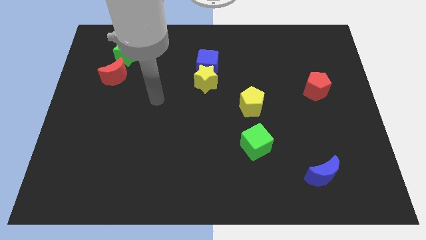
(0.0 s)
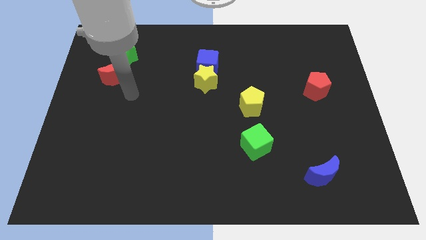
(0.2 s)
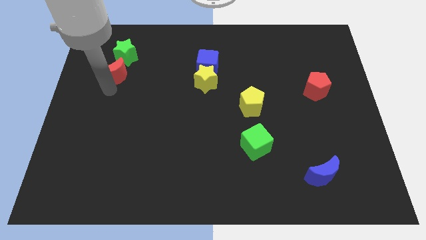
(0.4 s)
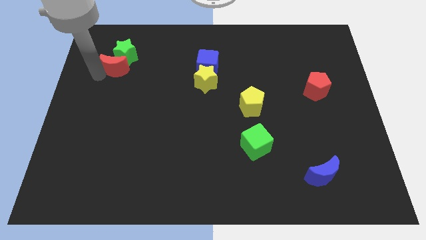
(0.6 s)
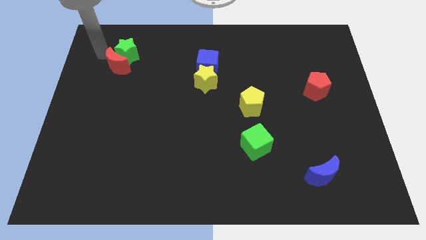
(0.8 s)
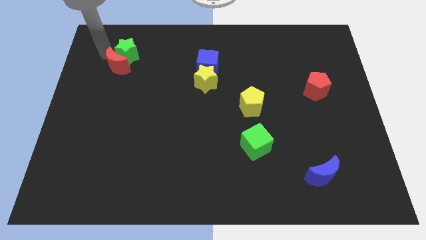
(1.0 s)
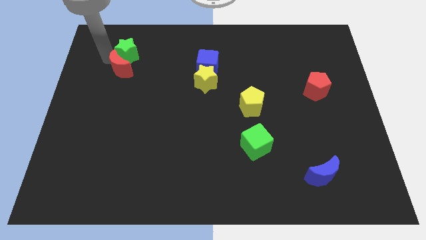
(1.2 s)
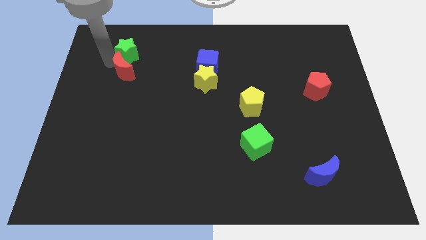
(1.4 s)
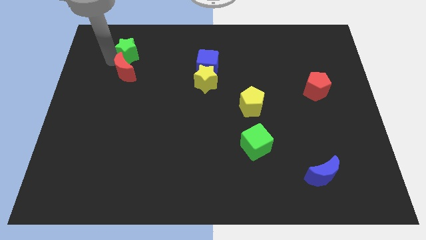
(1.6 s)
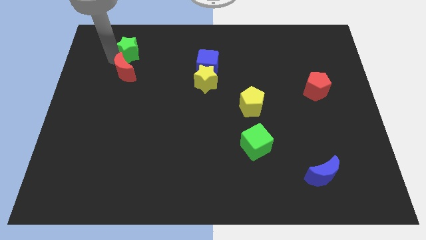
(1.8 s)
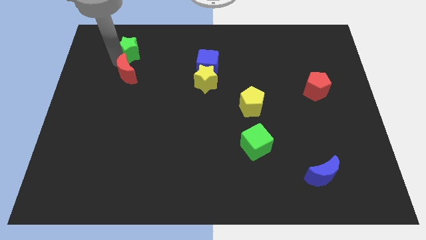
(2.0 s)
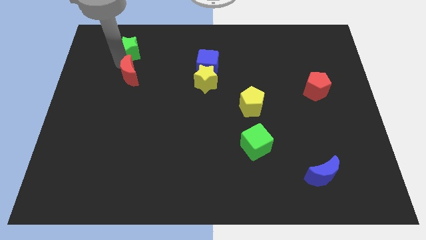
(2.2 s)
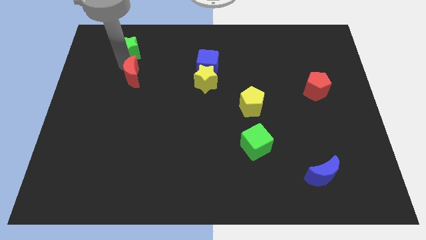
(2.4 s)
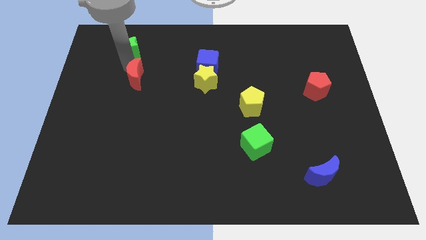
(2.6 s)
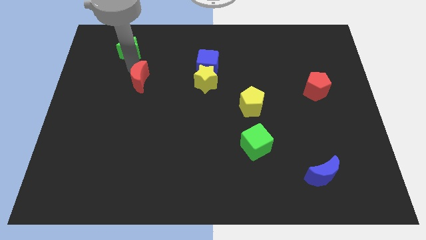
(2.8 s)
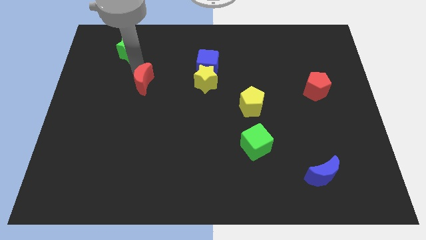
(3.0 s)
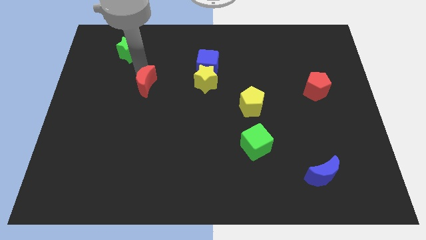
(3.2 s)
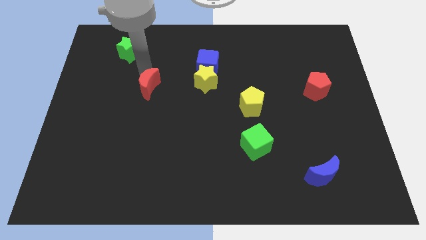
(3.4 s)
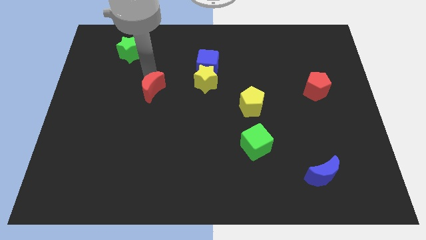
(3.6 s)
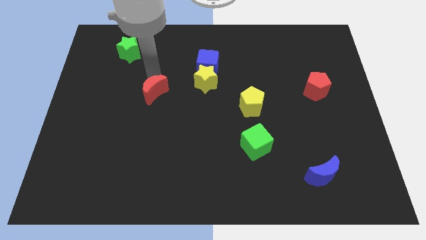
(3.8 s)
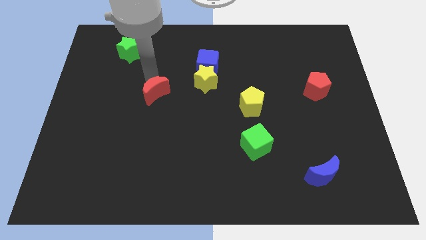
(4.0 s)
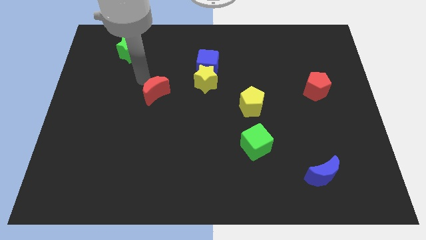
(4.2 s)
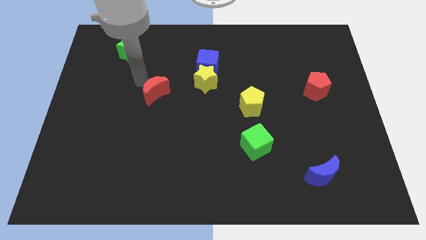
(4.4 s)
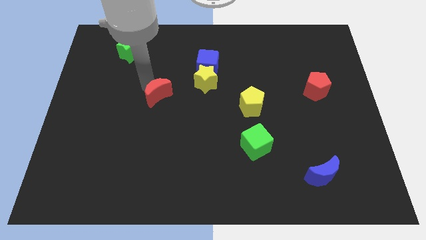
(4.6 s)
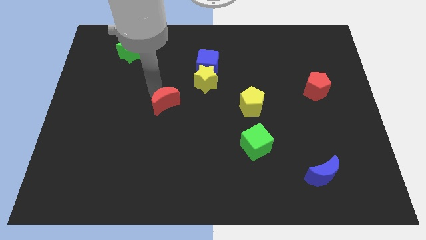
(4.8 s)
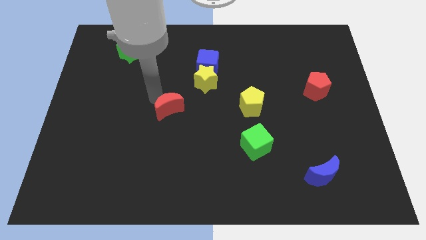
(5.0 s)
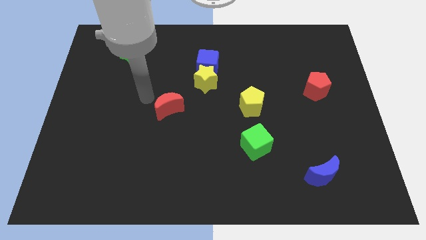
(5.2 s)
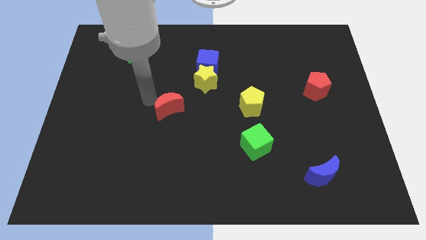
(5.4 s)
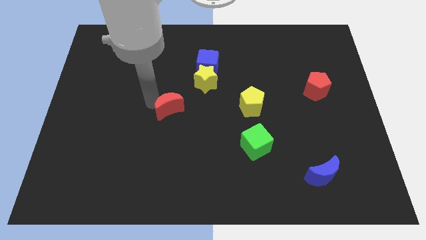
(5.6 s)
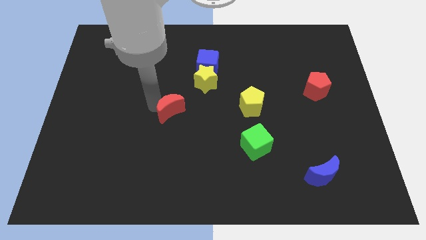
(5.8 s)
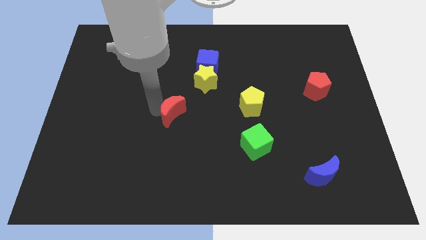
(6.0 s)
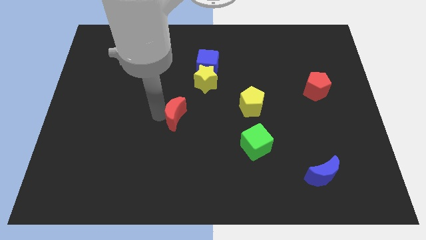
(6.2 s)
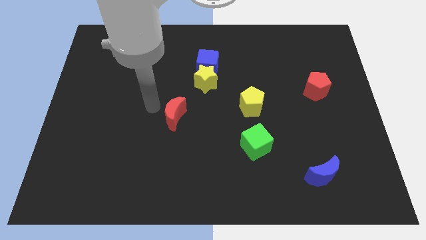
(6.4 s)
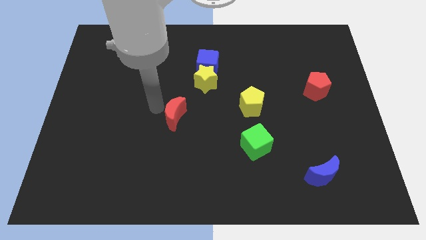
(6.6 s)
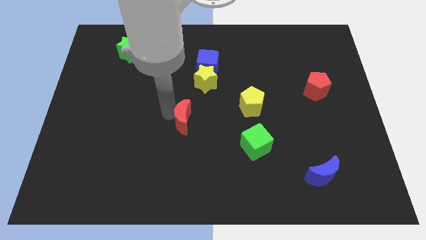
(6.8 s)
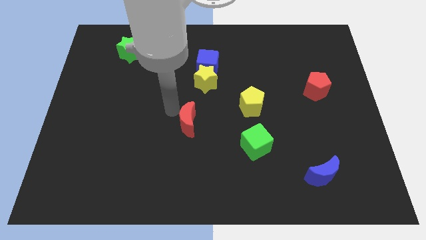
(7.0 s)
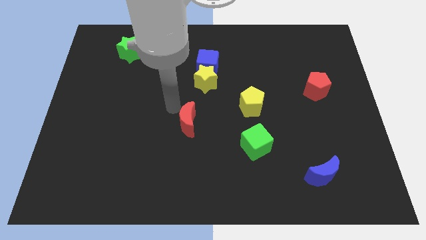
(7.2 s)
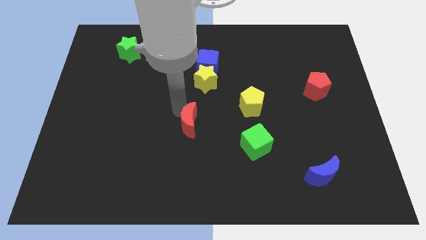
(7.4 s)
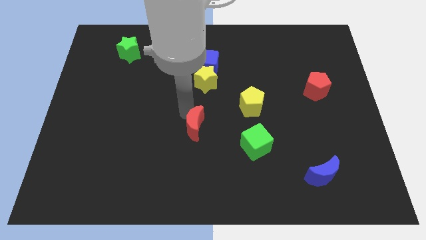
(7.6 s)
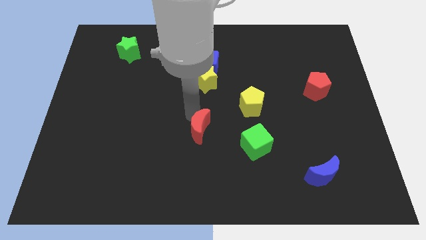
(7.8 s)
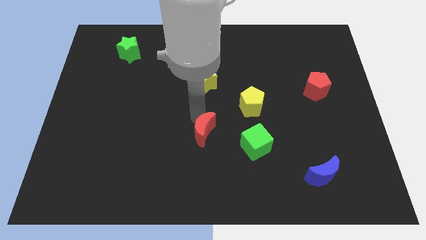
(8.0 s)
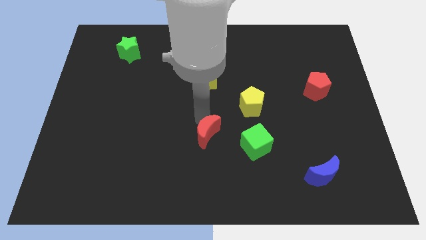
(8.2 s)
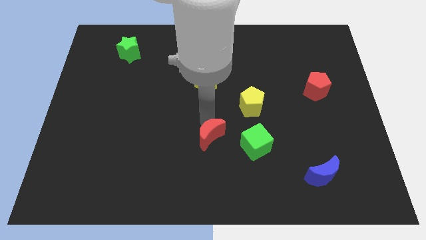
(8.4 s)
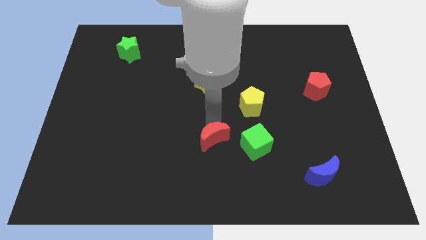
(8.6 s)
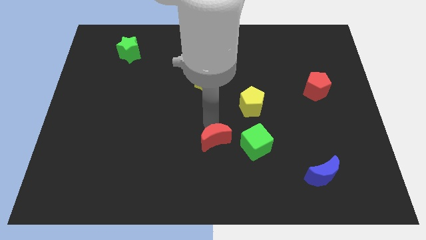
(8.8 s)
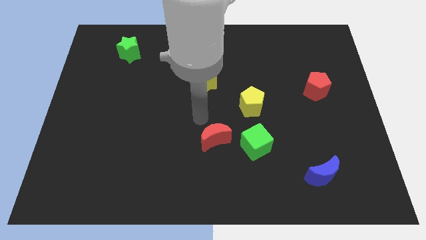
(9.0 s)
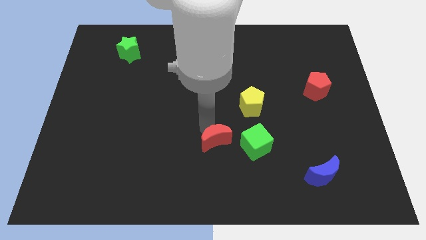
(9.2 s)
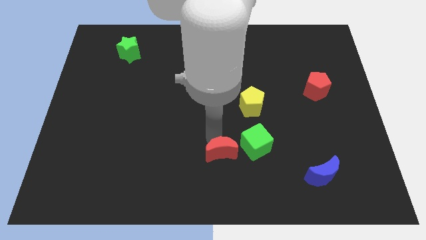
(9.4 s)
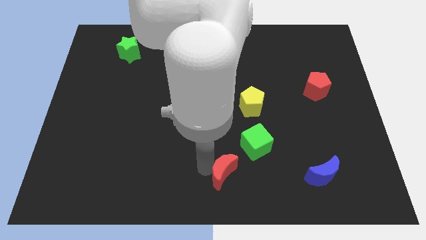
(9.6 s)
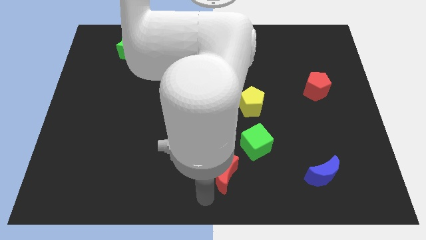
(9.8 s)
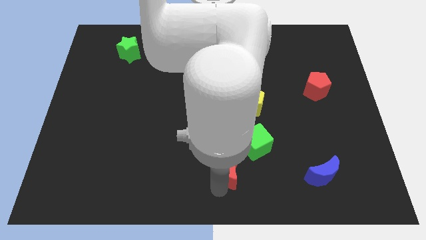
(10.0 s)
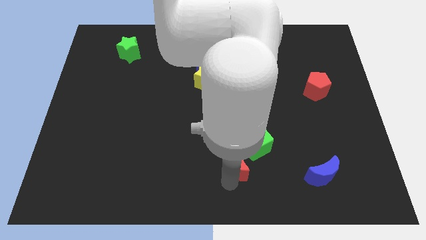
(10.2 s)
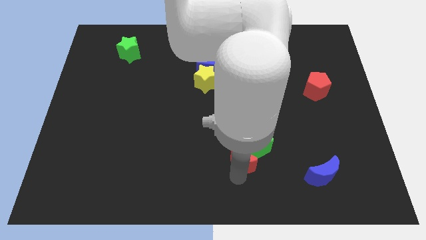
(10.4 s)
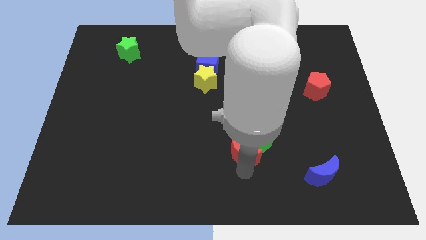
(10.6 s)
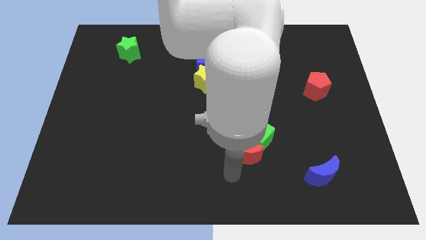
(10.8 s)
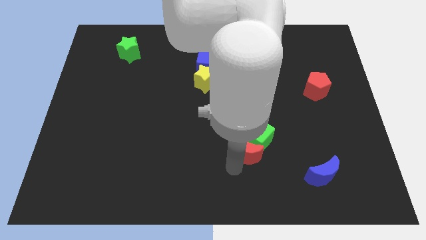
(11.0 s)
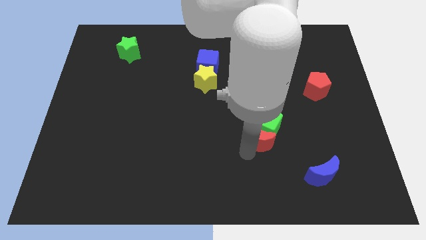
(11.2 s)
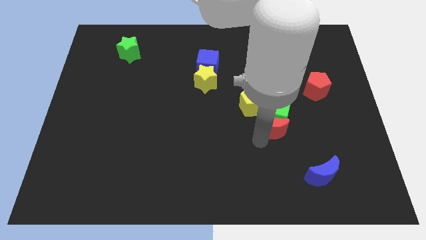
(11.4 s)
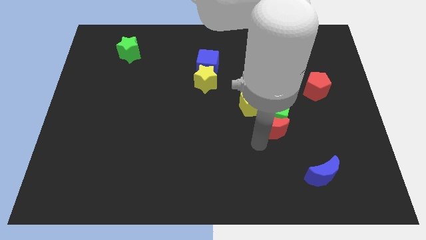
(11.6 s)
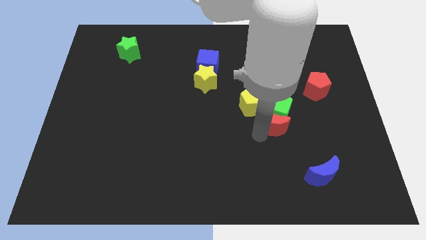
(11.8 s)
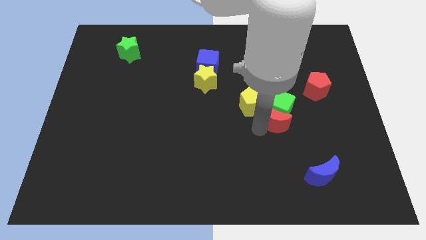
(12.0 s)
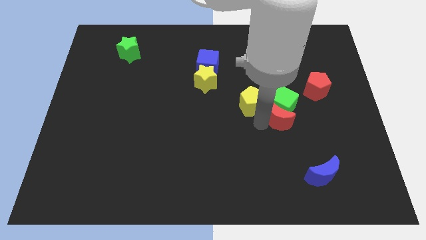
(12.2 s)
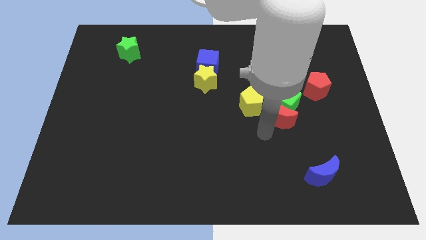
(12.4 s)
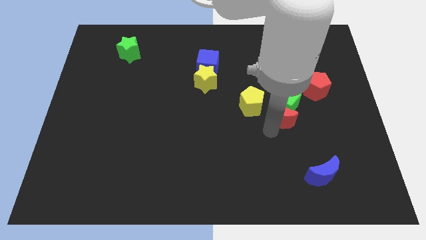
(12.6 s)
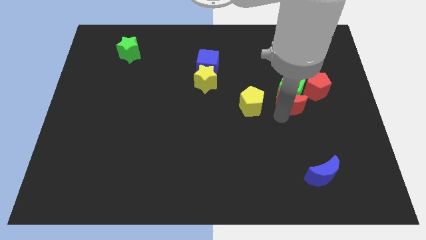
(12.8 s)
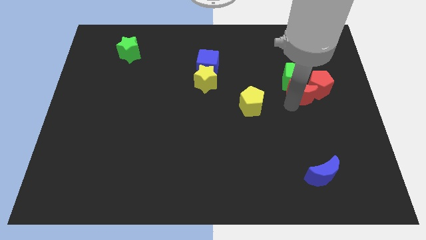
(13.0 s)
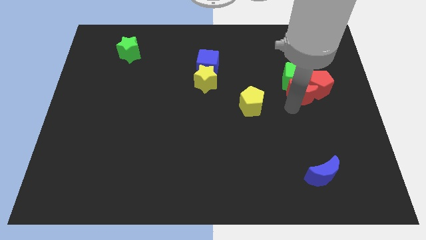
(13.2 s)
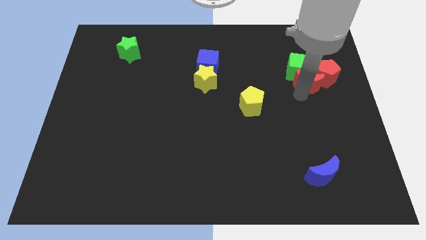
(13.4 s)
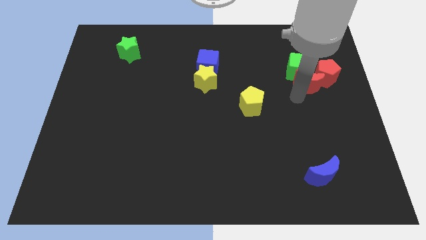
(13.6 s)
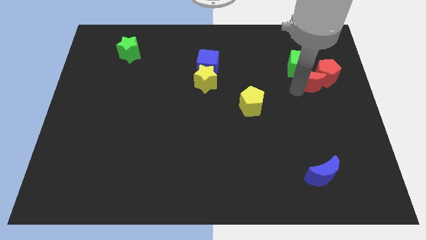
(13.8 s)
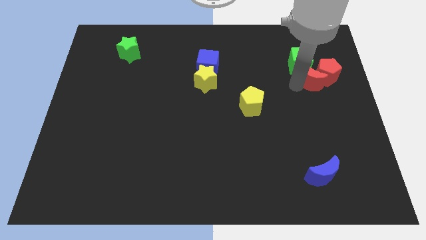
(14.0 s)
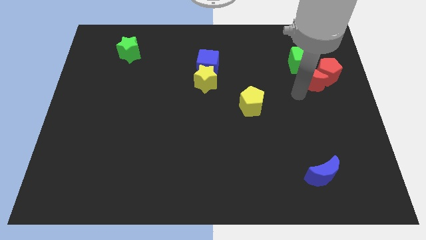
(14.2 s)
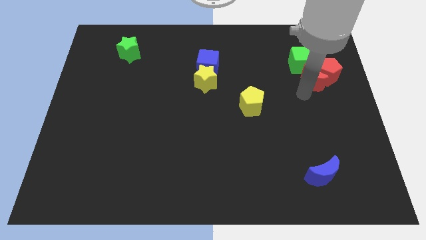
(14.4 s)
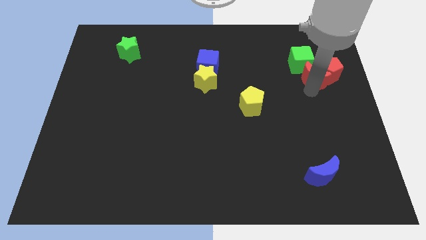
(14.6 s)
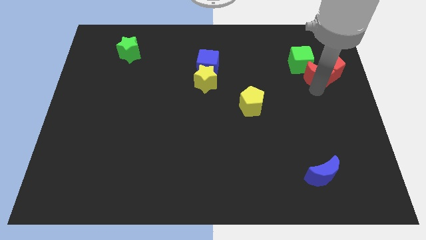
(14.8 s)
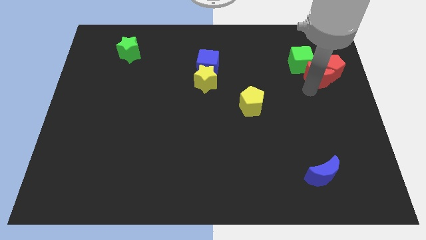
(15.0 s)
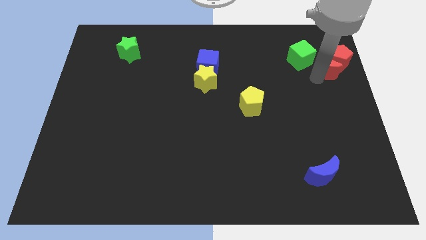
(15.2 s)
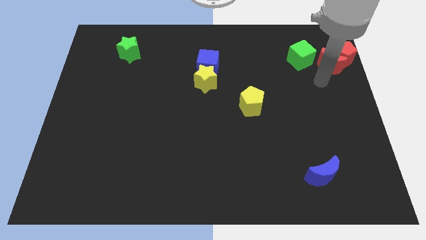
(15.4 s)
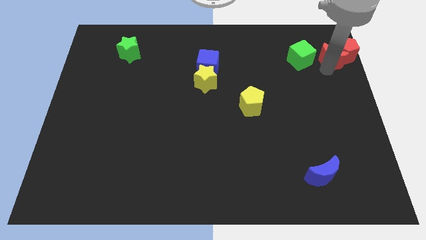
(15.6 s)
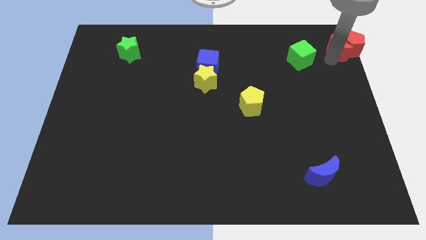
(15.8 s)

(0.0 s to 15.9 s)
push the red moon to the top right of the board
